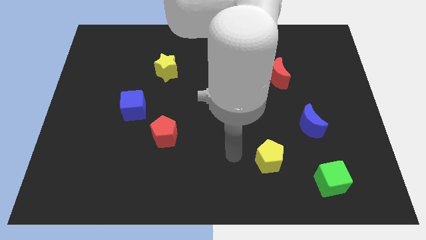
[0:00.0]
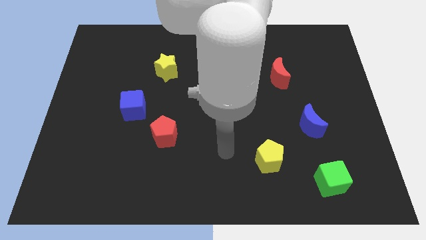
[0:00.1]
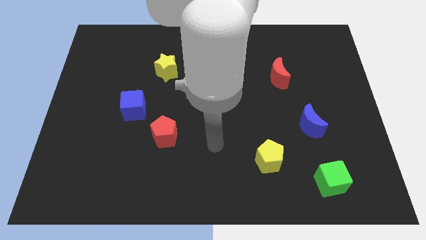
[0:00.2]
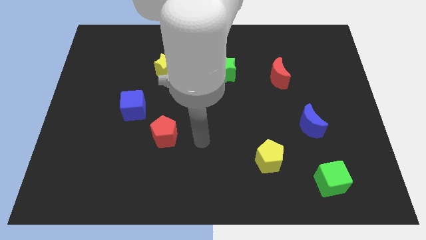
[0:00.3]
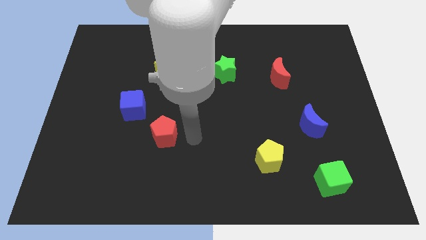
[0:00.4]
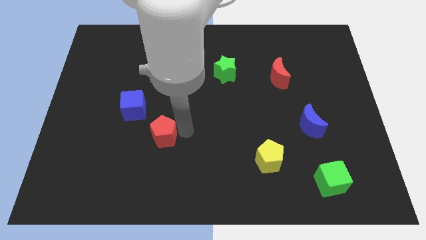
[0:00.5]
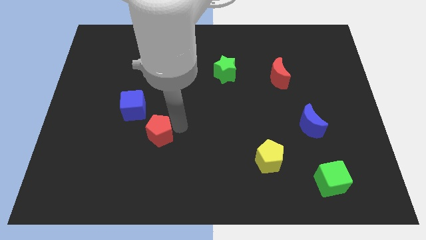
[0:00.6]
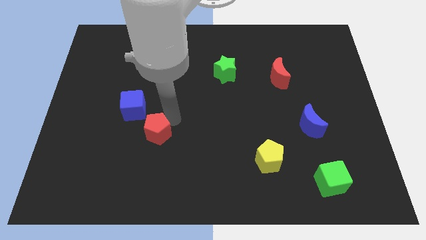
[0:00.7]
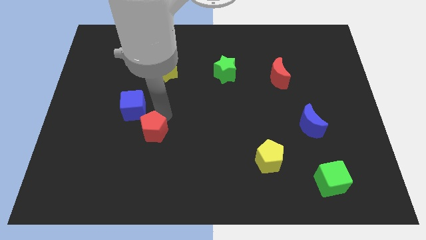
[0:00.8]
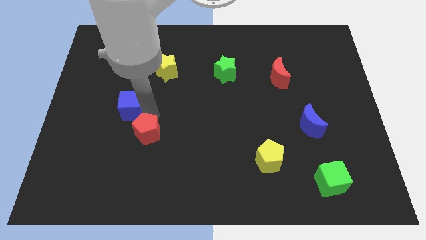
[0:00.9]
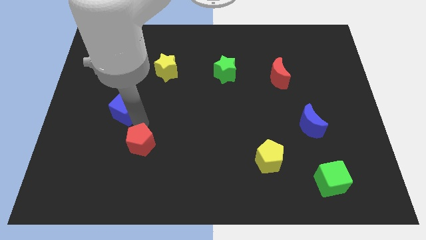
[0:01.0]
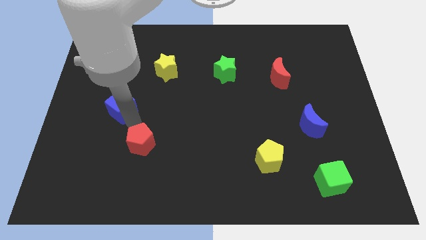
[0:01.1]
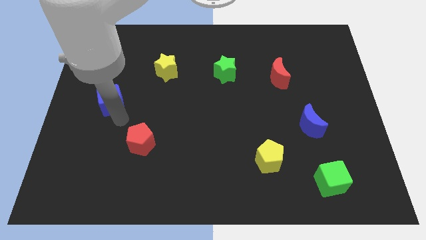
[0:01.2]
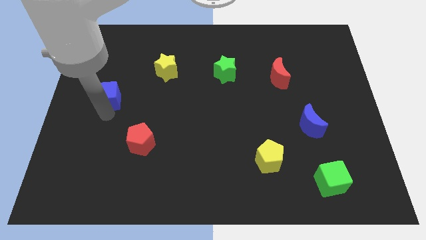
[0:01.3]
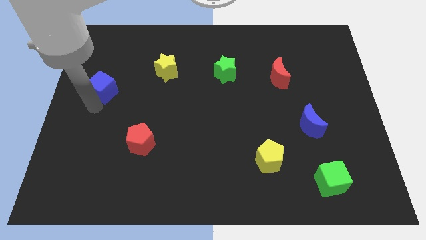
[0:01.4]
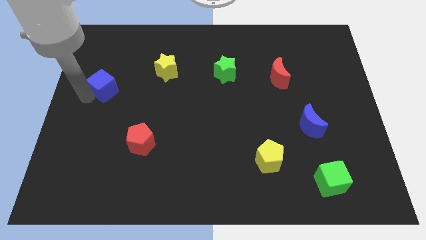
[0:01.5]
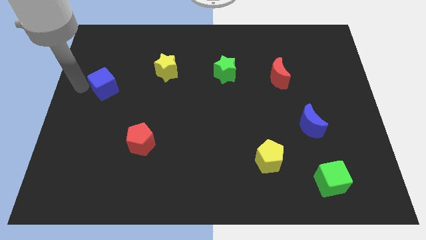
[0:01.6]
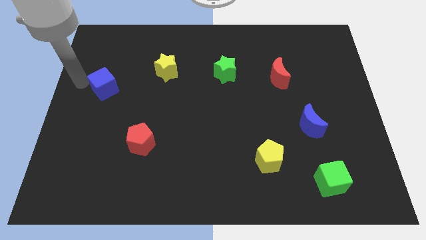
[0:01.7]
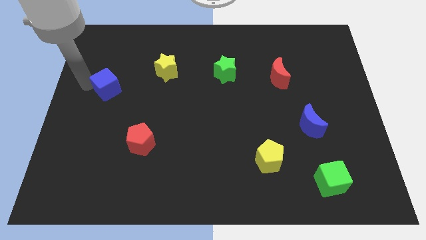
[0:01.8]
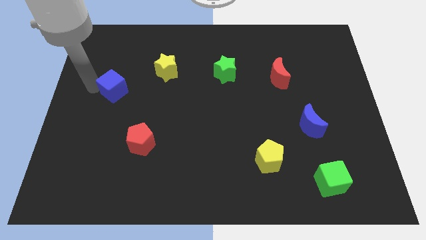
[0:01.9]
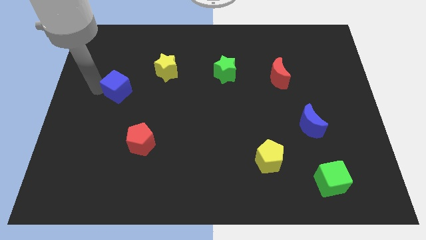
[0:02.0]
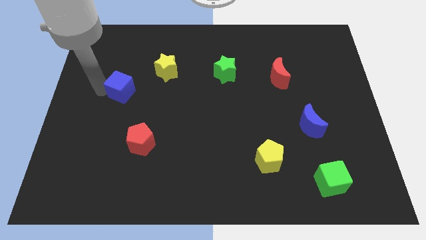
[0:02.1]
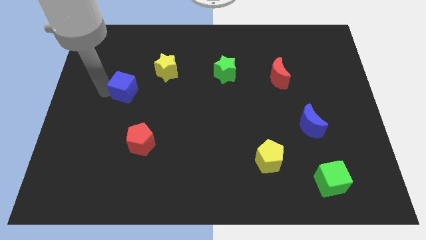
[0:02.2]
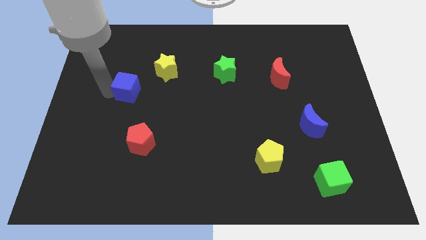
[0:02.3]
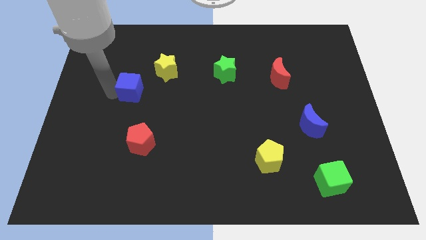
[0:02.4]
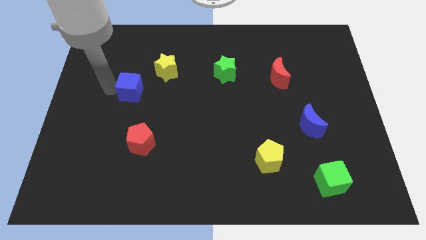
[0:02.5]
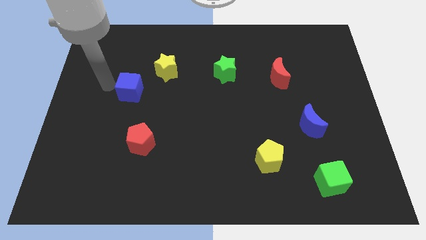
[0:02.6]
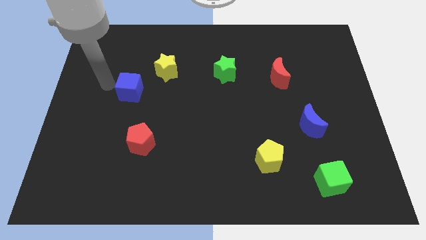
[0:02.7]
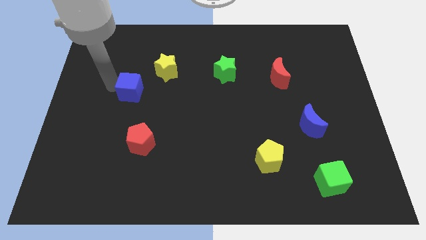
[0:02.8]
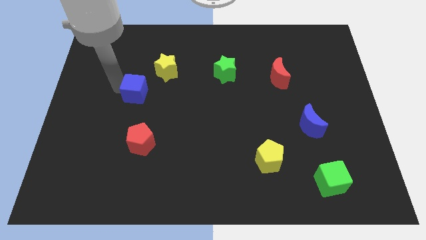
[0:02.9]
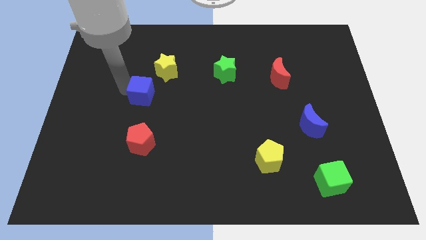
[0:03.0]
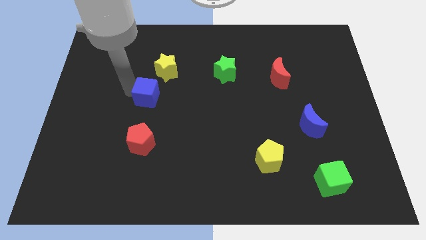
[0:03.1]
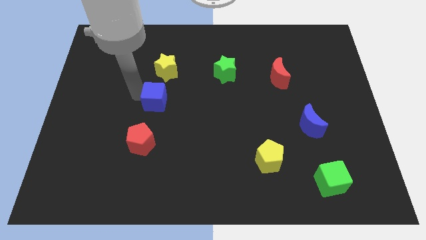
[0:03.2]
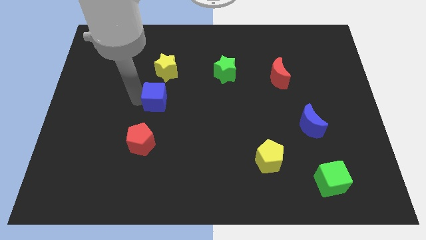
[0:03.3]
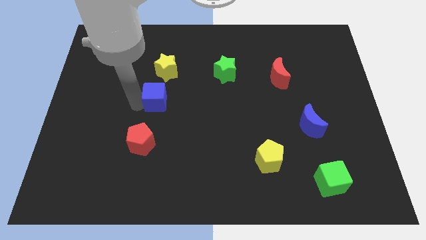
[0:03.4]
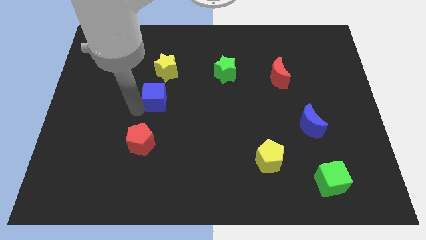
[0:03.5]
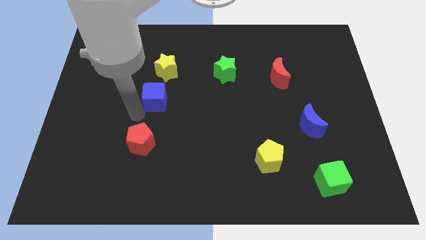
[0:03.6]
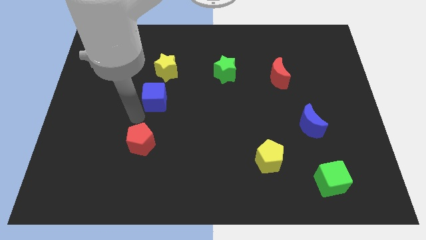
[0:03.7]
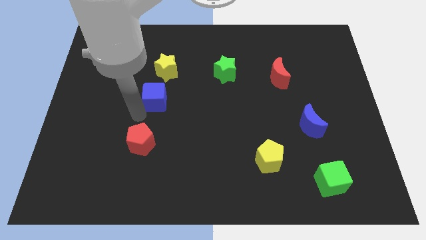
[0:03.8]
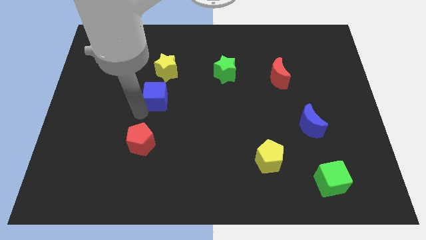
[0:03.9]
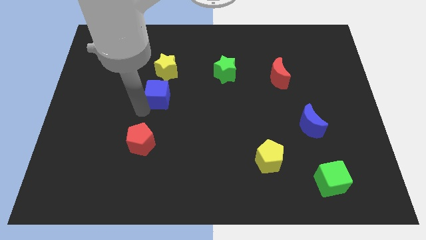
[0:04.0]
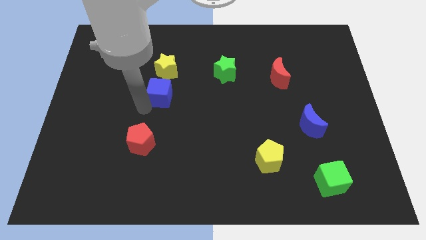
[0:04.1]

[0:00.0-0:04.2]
slightly push the blue cube diagonally upwards and to the right

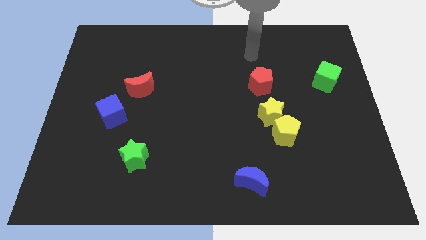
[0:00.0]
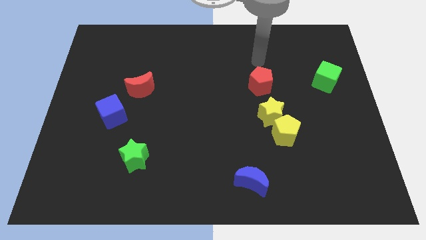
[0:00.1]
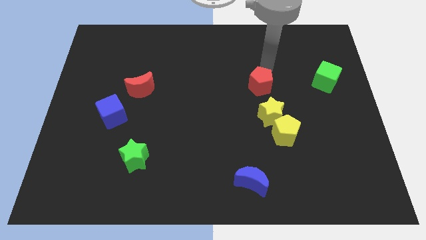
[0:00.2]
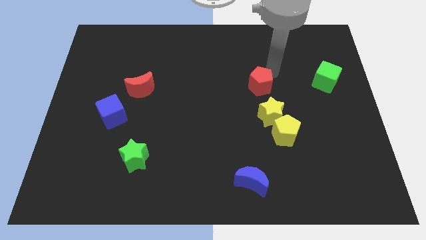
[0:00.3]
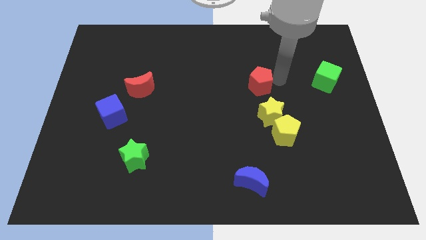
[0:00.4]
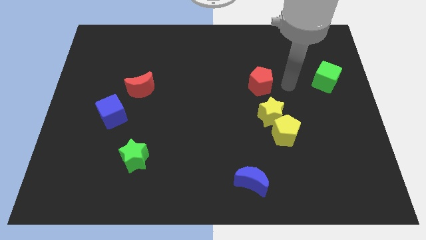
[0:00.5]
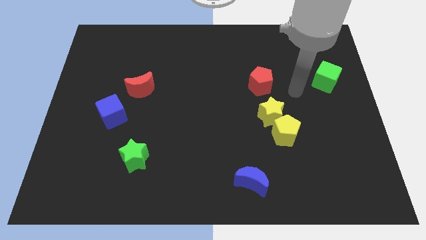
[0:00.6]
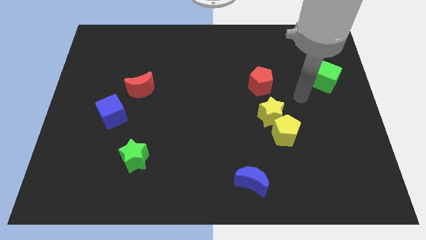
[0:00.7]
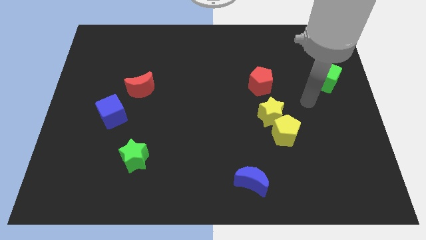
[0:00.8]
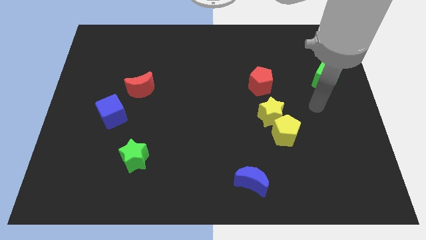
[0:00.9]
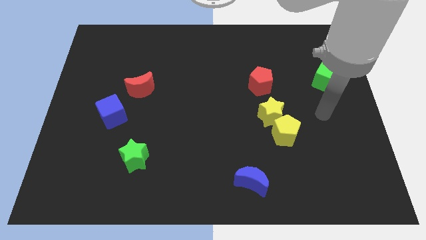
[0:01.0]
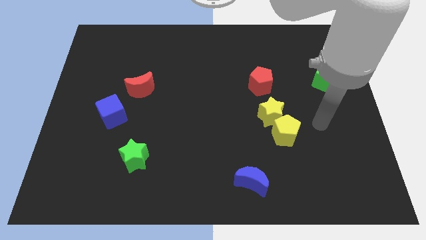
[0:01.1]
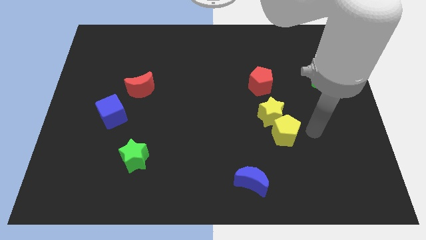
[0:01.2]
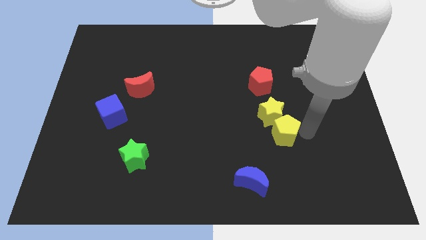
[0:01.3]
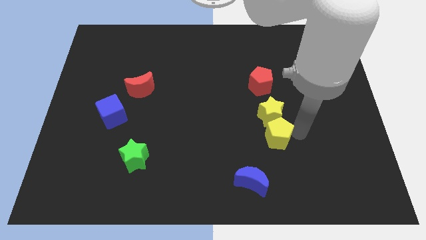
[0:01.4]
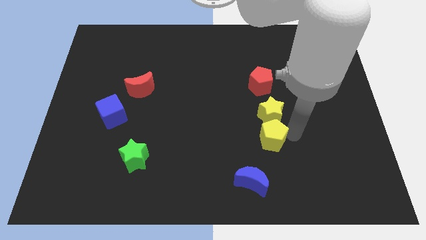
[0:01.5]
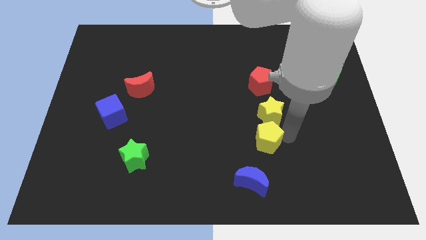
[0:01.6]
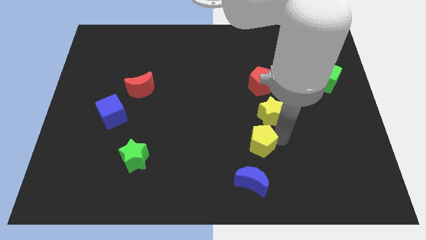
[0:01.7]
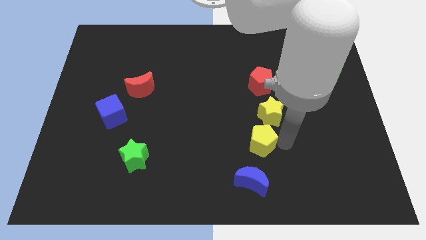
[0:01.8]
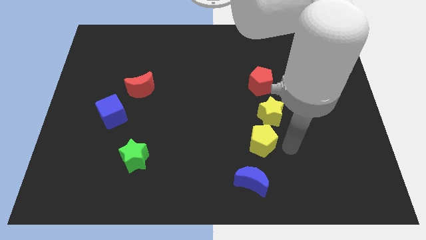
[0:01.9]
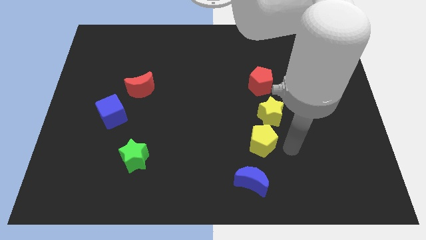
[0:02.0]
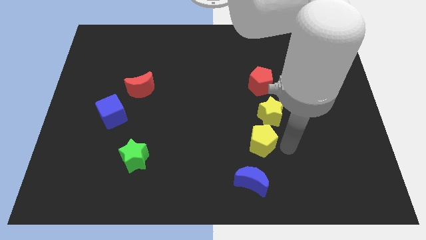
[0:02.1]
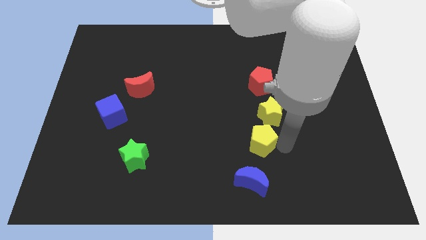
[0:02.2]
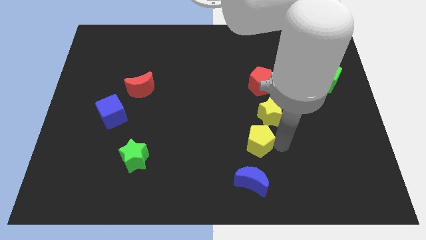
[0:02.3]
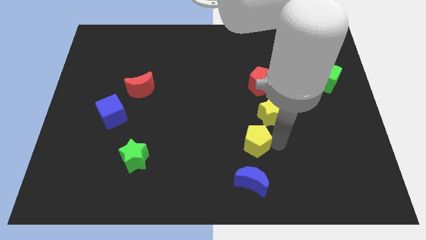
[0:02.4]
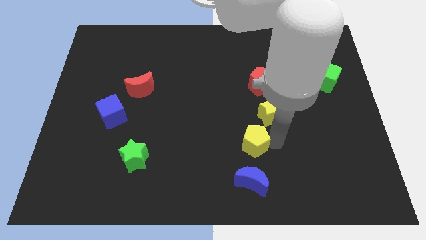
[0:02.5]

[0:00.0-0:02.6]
move the yellow pentagon a bit left

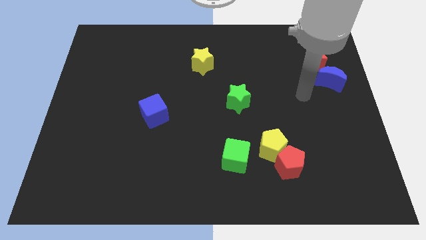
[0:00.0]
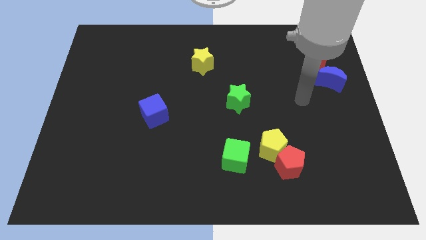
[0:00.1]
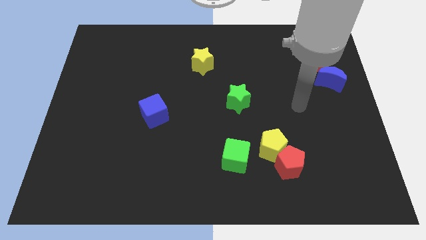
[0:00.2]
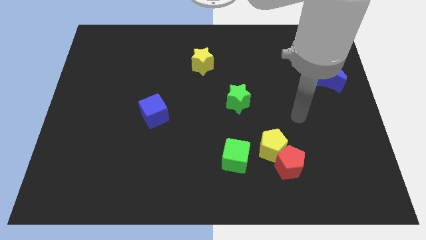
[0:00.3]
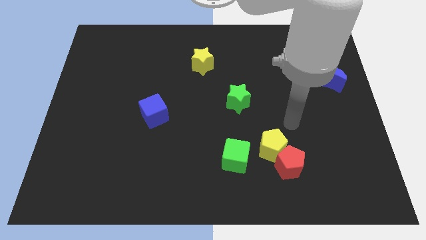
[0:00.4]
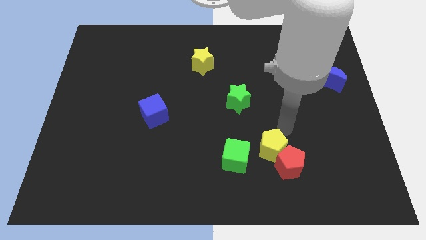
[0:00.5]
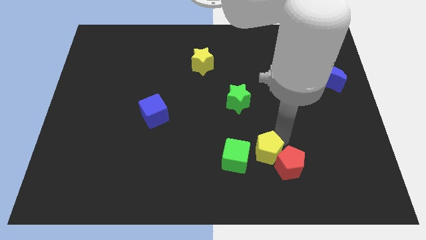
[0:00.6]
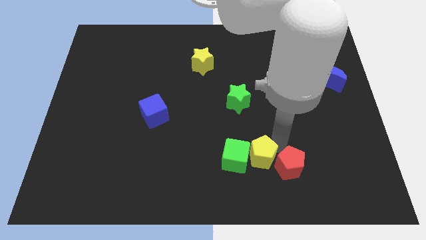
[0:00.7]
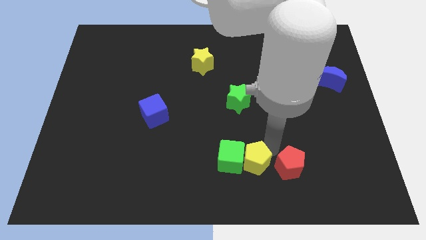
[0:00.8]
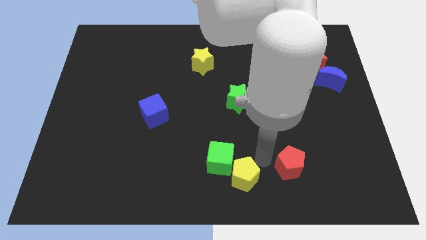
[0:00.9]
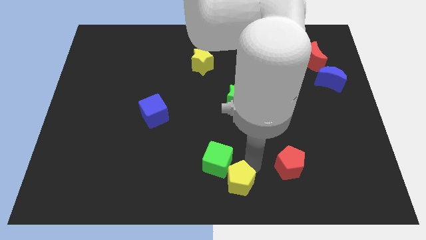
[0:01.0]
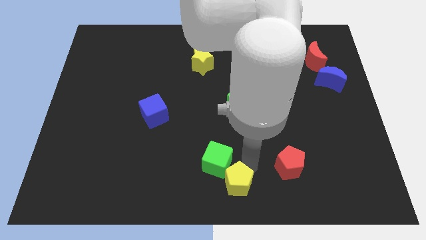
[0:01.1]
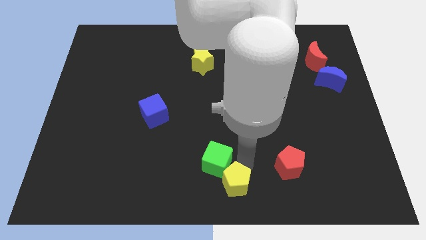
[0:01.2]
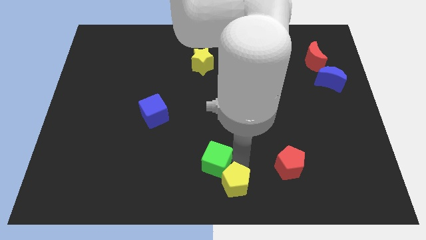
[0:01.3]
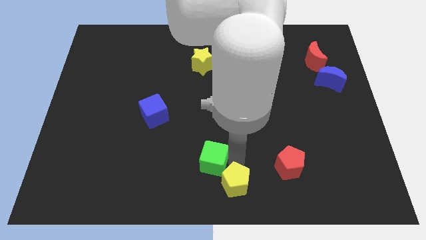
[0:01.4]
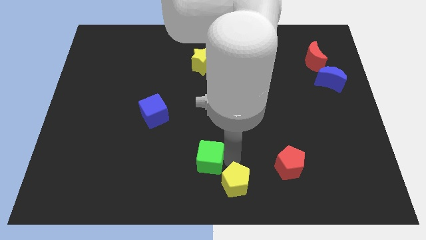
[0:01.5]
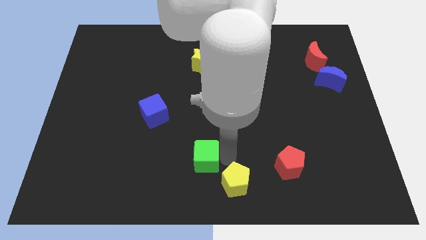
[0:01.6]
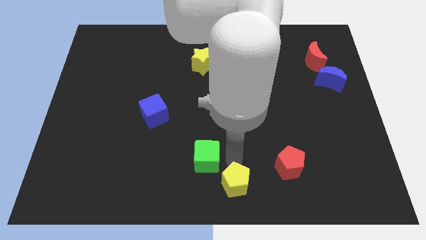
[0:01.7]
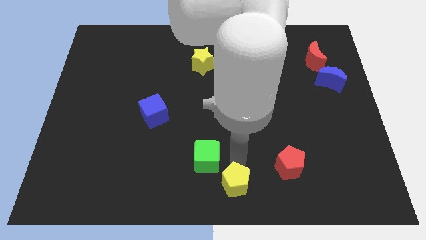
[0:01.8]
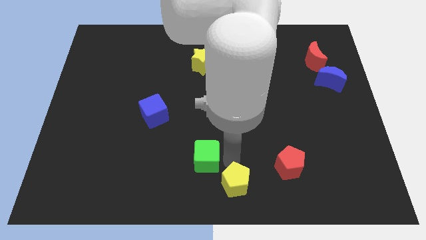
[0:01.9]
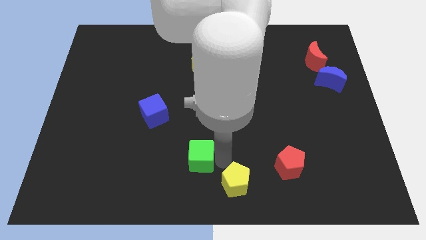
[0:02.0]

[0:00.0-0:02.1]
slightly move the green cube to the left
